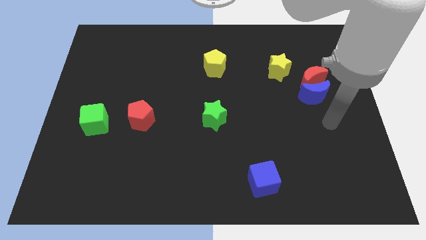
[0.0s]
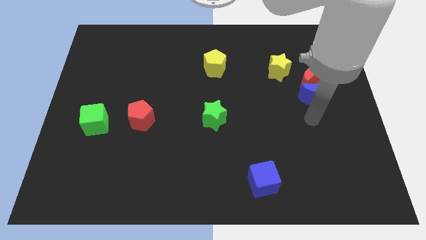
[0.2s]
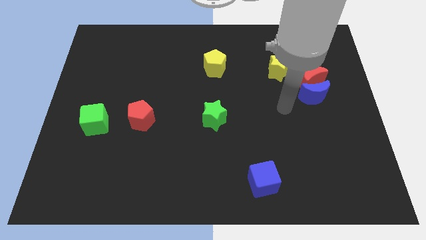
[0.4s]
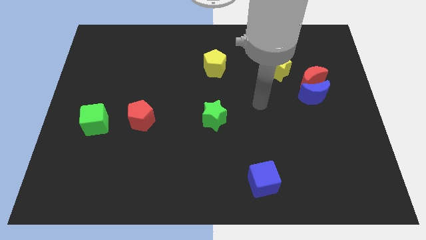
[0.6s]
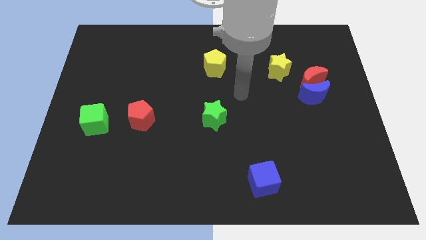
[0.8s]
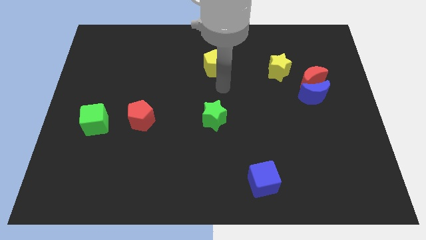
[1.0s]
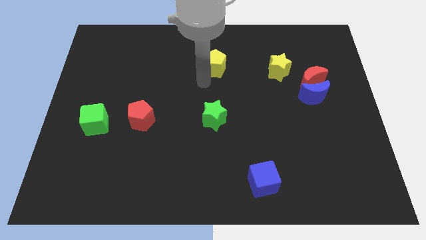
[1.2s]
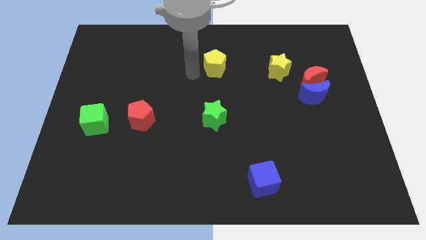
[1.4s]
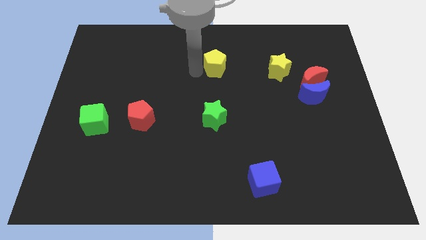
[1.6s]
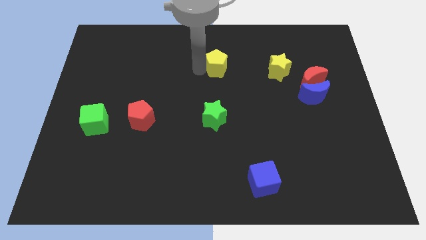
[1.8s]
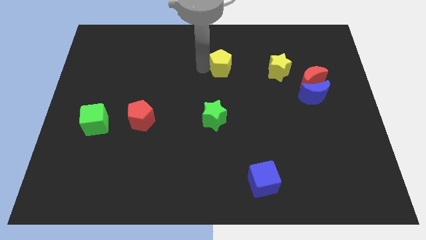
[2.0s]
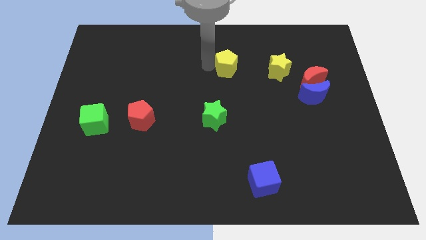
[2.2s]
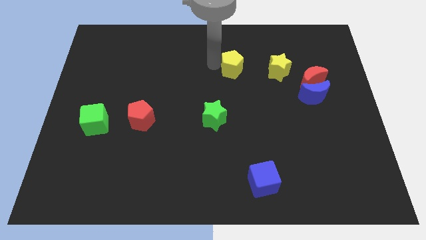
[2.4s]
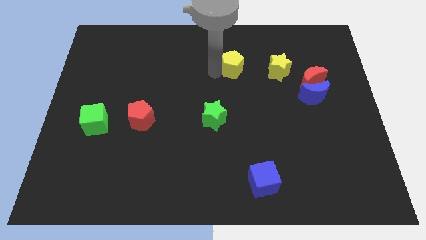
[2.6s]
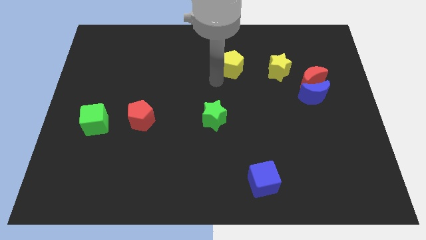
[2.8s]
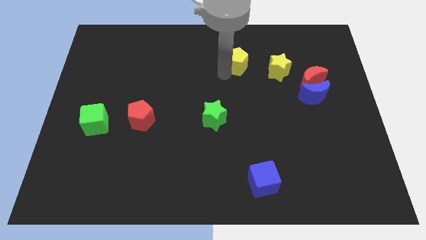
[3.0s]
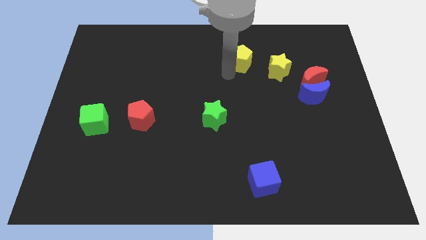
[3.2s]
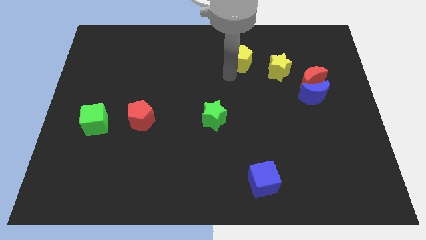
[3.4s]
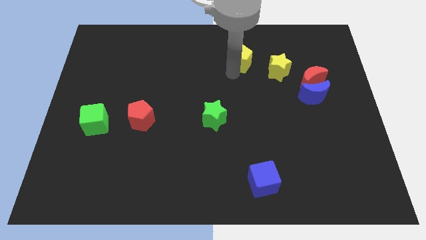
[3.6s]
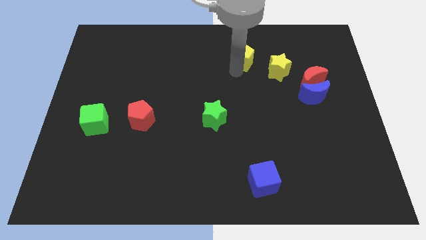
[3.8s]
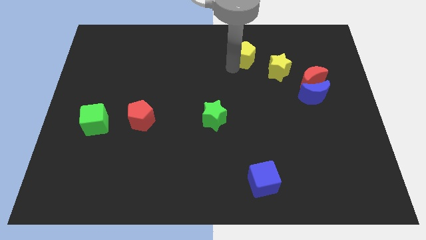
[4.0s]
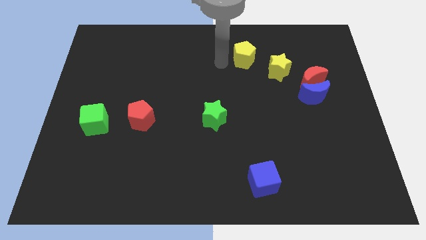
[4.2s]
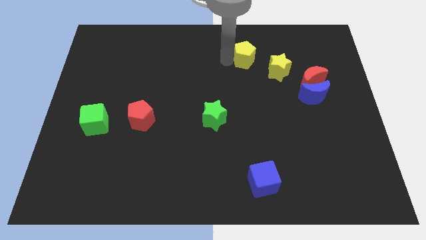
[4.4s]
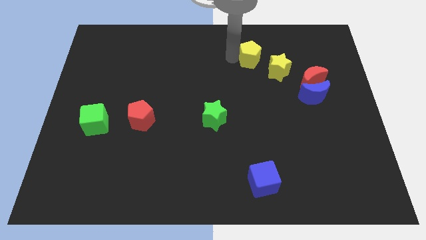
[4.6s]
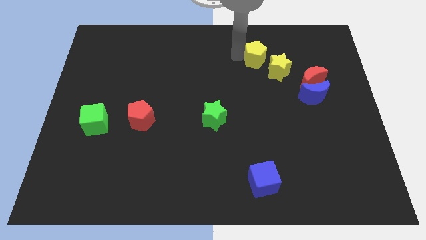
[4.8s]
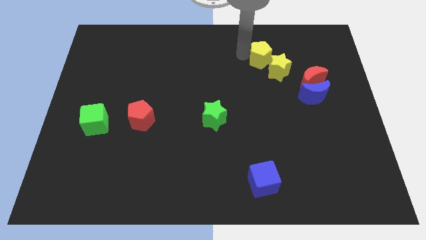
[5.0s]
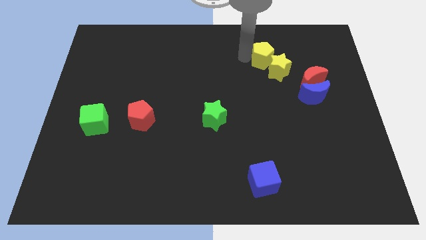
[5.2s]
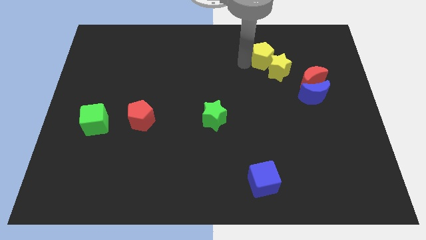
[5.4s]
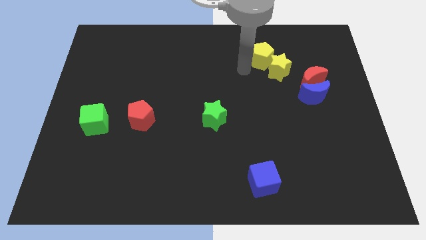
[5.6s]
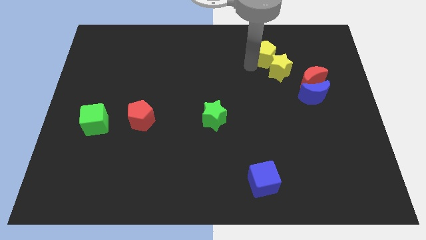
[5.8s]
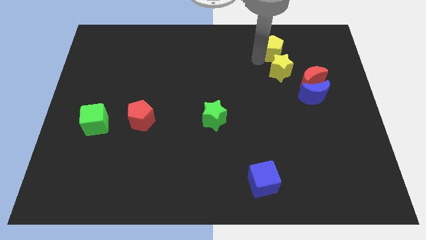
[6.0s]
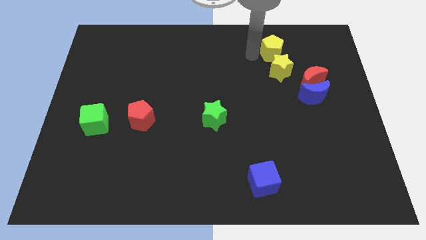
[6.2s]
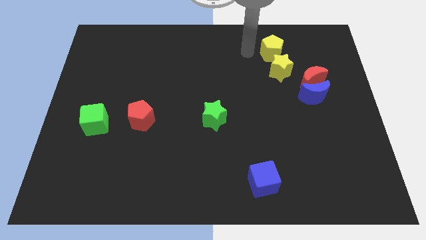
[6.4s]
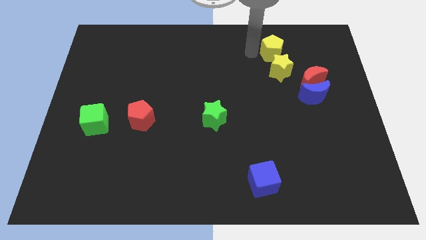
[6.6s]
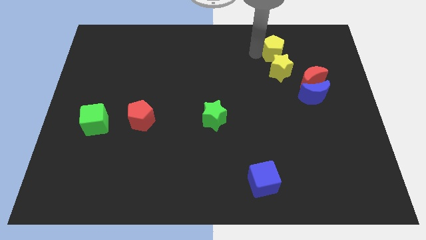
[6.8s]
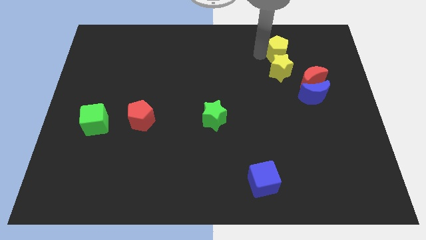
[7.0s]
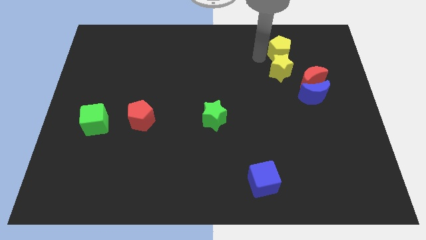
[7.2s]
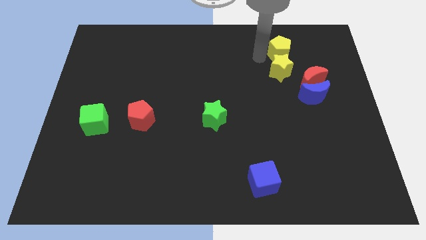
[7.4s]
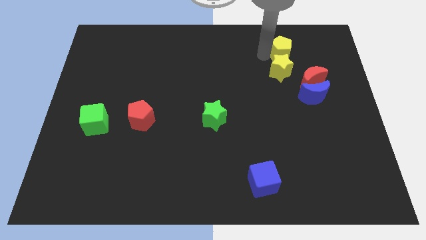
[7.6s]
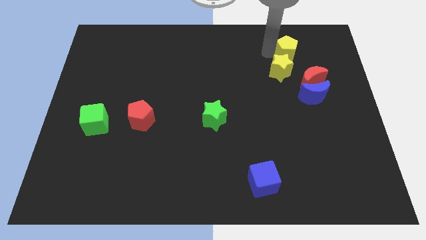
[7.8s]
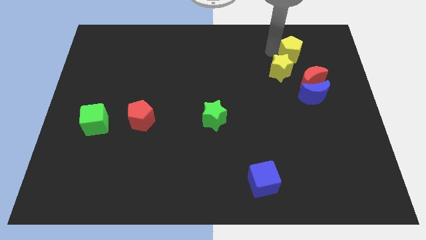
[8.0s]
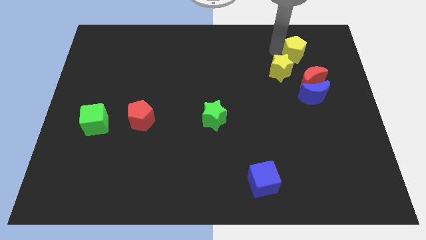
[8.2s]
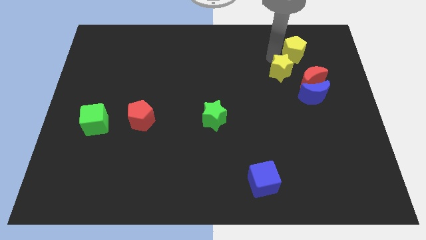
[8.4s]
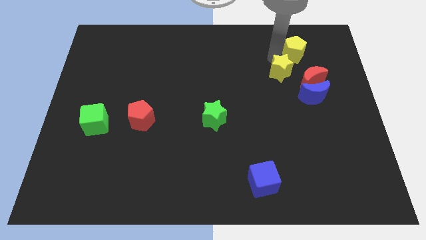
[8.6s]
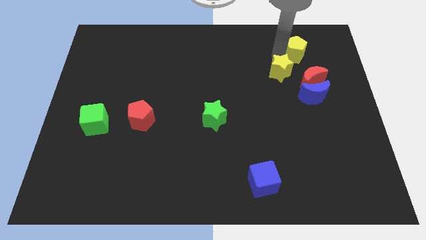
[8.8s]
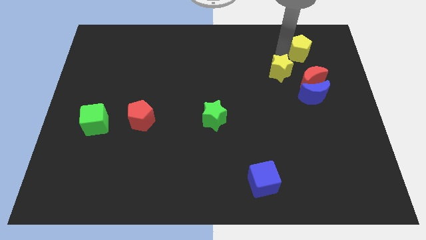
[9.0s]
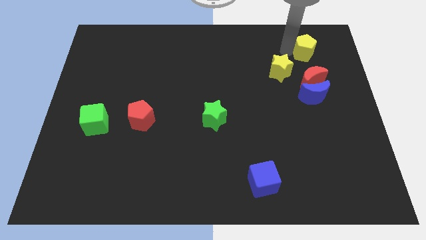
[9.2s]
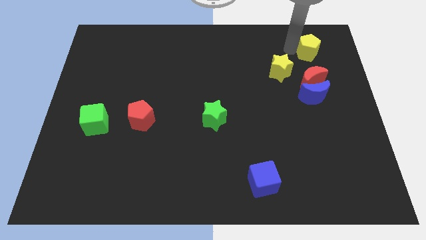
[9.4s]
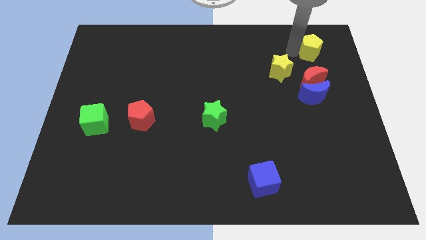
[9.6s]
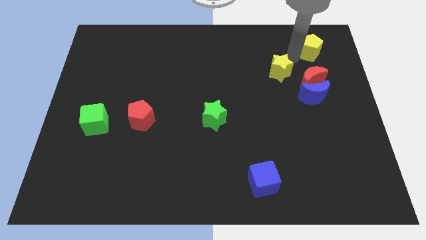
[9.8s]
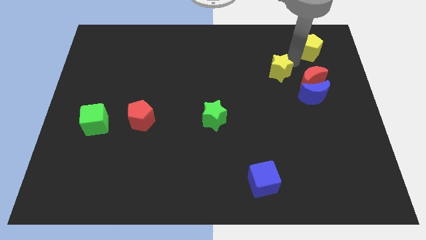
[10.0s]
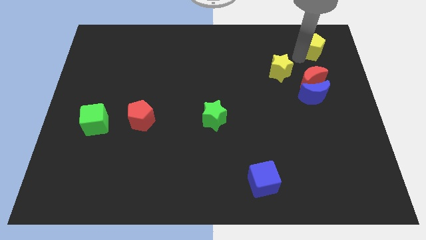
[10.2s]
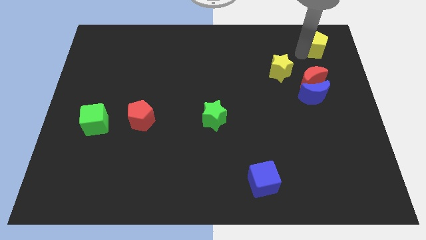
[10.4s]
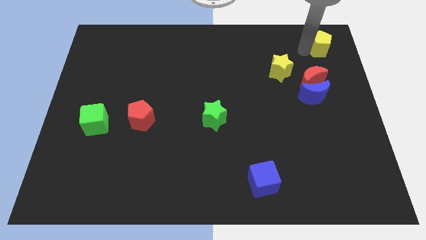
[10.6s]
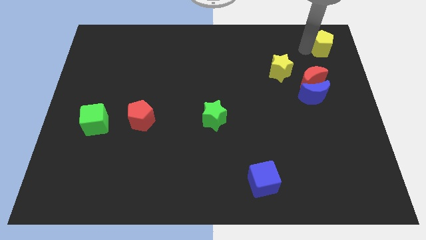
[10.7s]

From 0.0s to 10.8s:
move the yellow pentagon to the top right

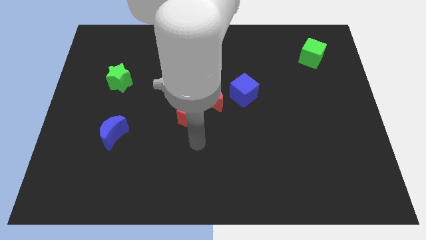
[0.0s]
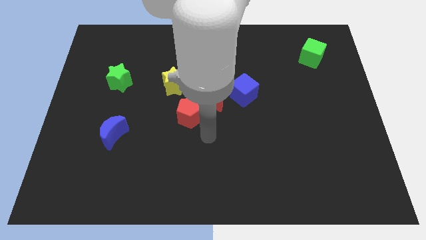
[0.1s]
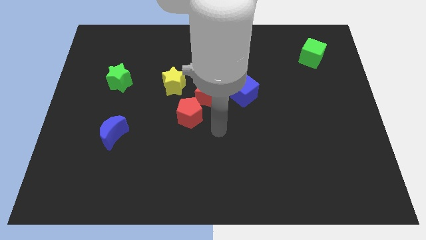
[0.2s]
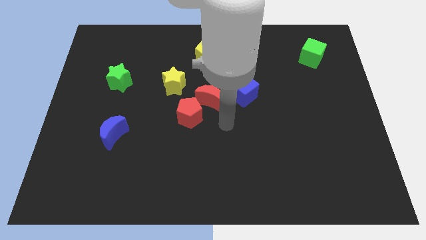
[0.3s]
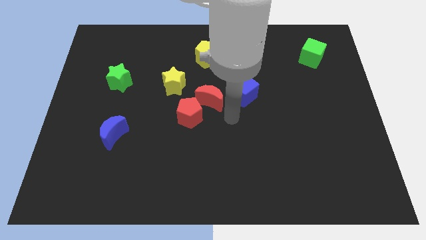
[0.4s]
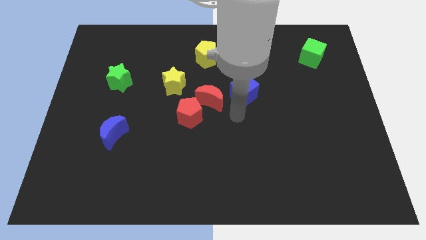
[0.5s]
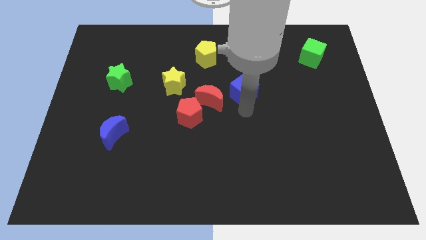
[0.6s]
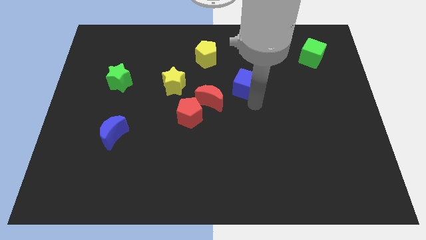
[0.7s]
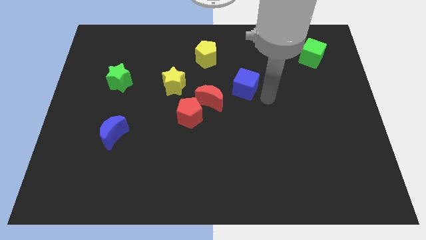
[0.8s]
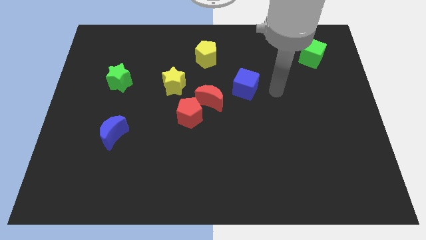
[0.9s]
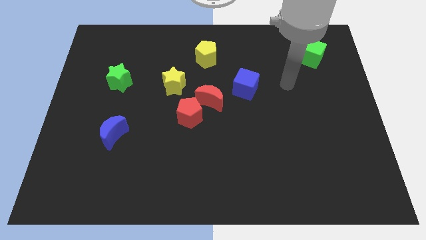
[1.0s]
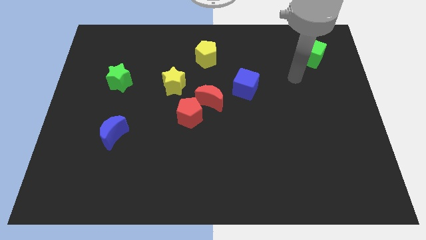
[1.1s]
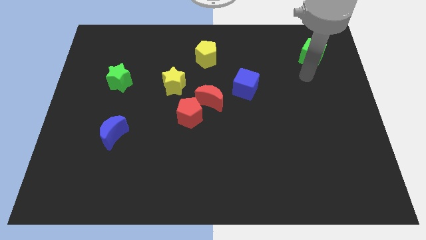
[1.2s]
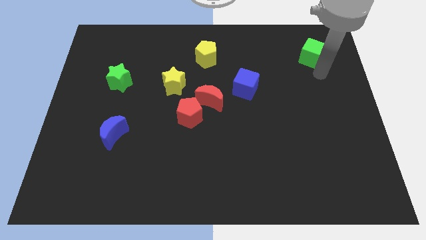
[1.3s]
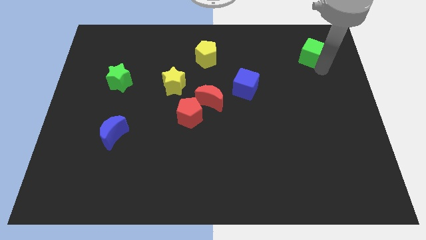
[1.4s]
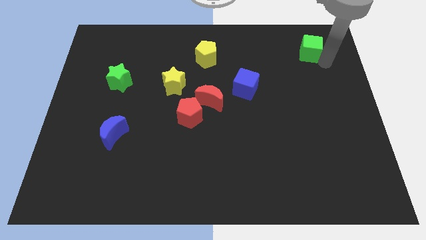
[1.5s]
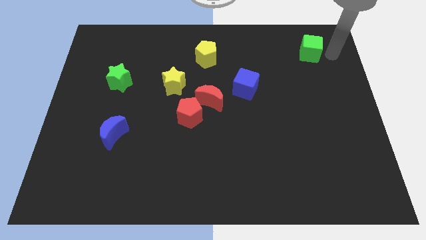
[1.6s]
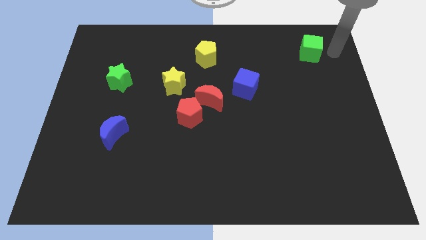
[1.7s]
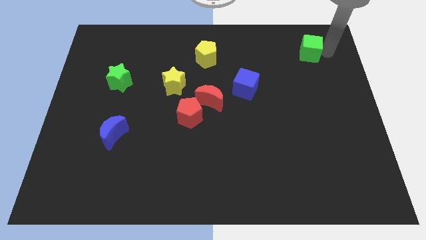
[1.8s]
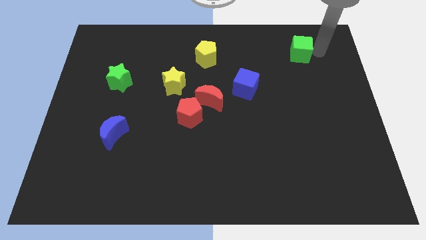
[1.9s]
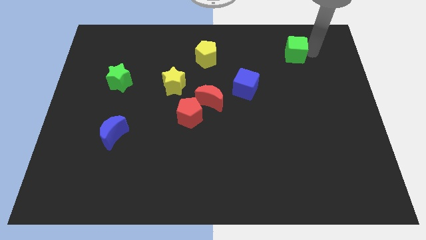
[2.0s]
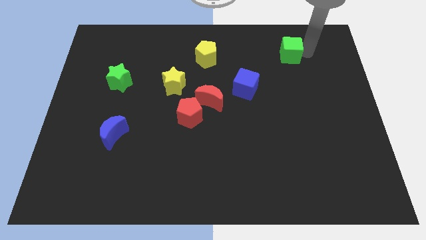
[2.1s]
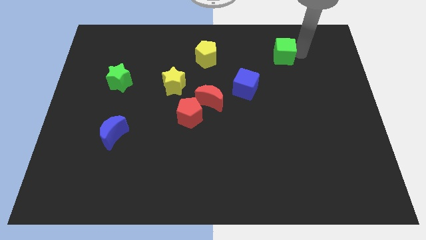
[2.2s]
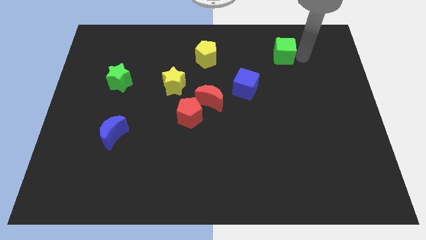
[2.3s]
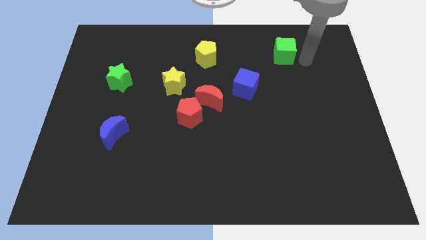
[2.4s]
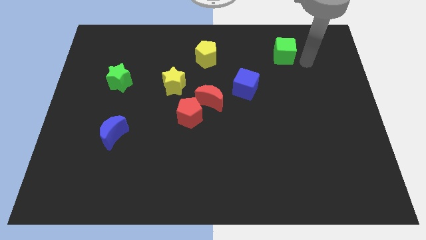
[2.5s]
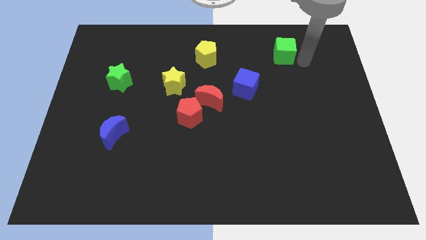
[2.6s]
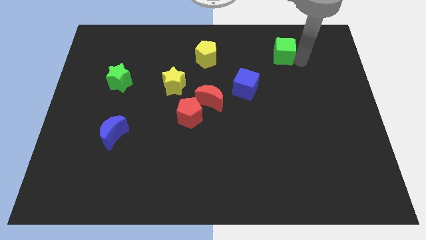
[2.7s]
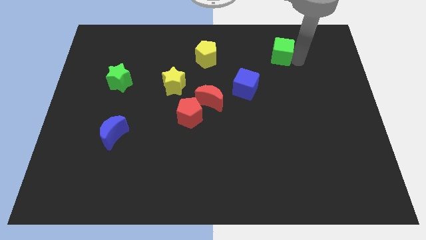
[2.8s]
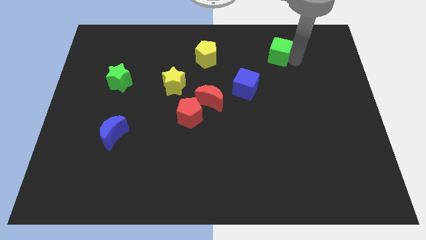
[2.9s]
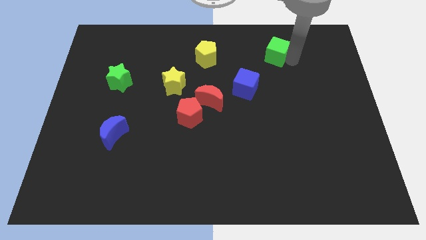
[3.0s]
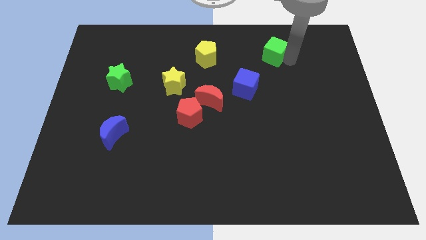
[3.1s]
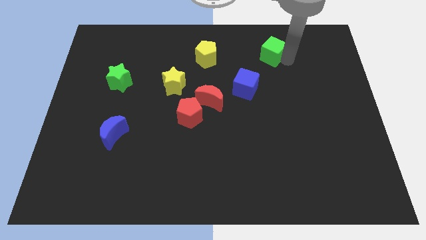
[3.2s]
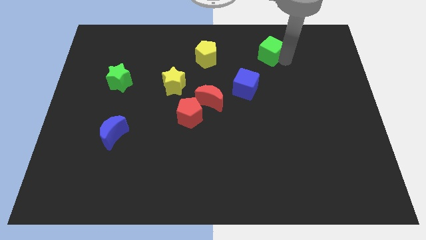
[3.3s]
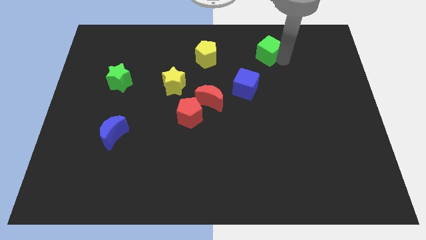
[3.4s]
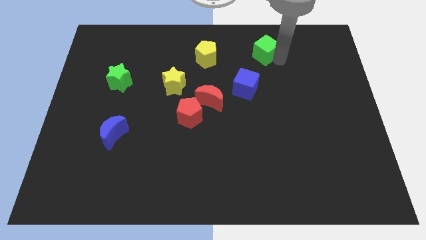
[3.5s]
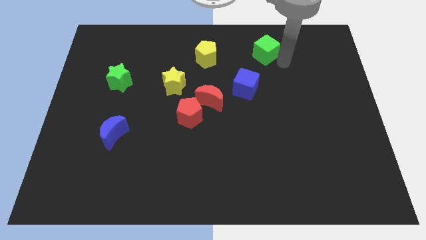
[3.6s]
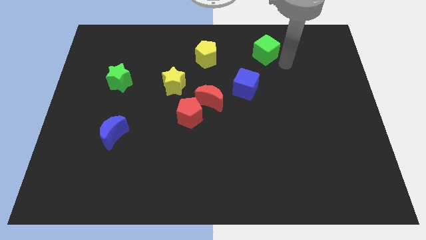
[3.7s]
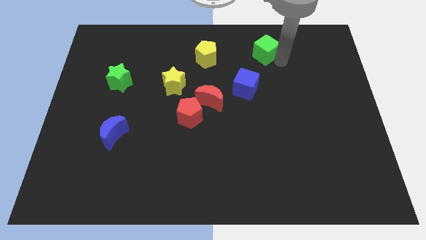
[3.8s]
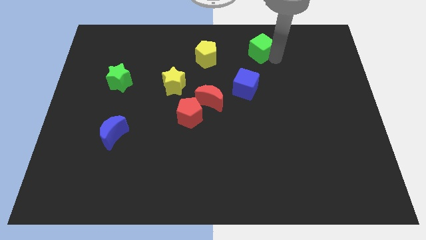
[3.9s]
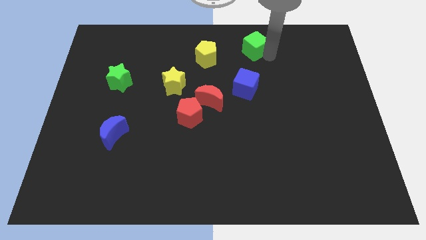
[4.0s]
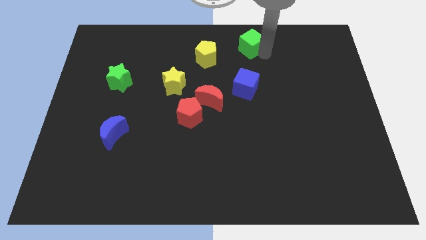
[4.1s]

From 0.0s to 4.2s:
slide the green cube to the top
